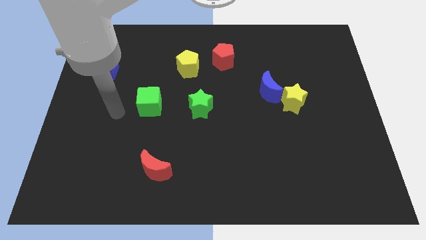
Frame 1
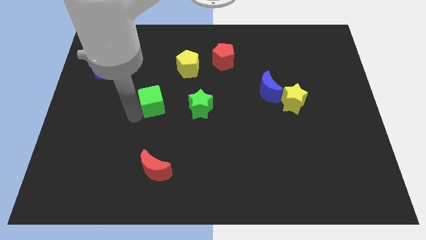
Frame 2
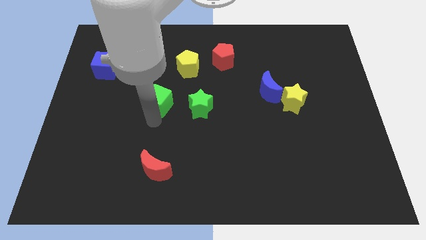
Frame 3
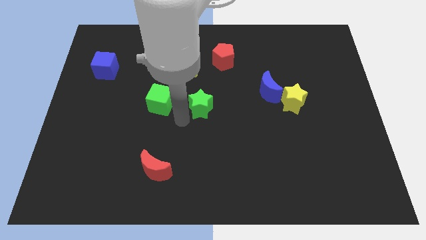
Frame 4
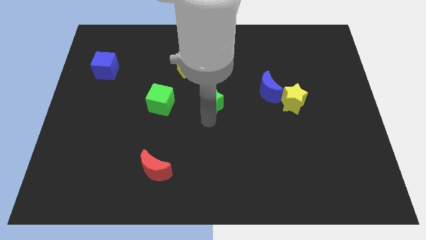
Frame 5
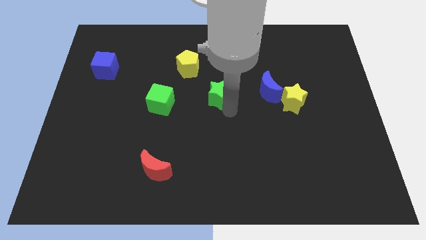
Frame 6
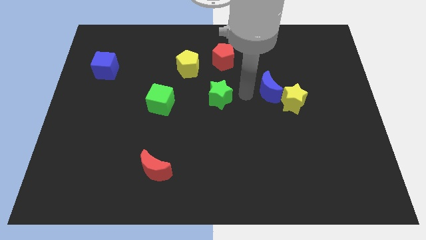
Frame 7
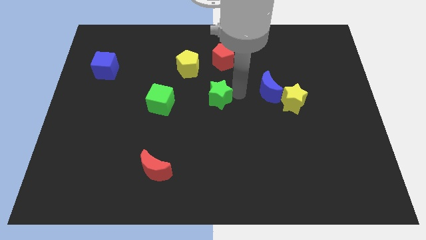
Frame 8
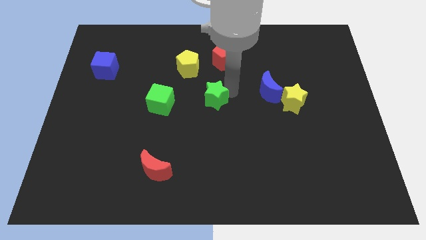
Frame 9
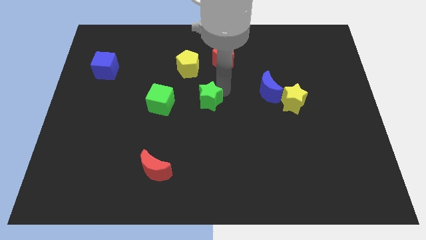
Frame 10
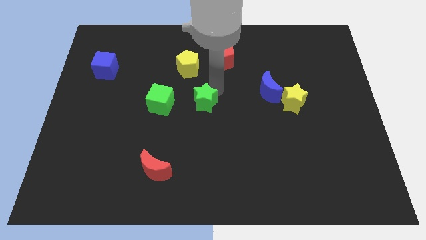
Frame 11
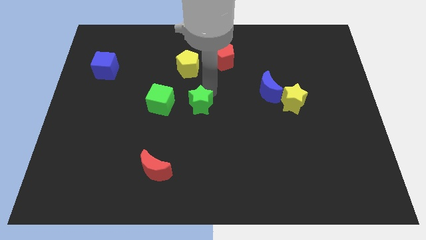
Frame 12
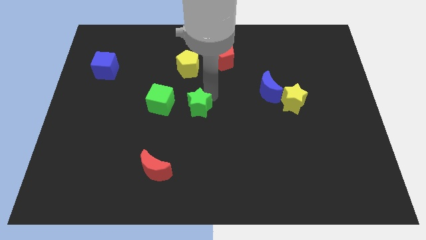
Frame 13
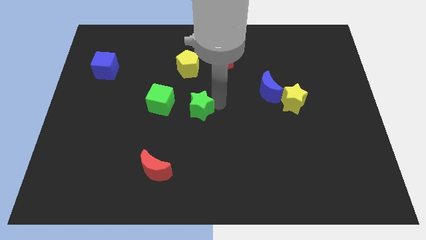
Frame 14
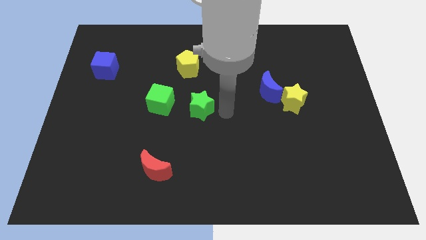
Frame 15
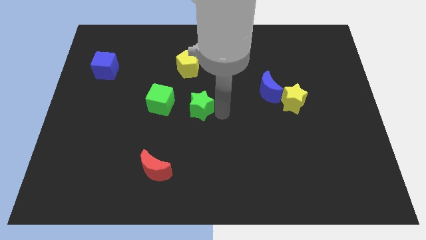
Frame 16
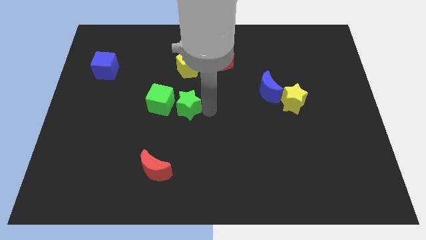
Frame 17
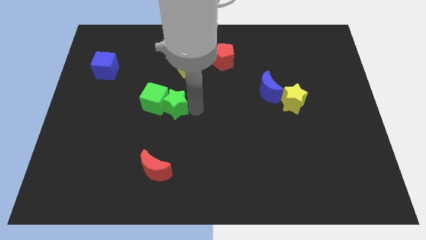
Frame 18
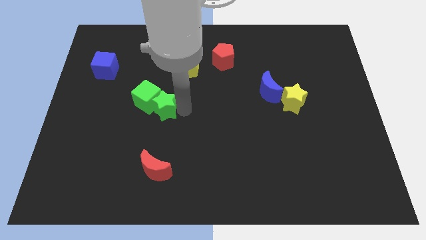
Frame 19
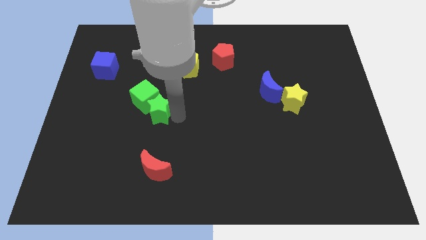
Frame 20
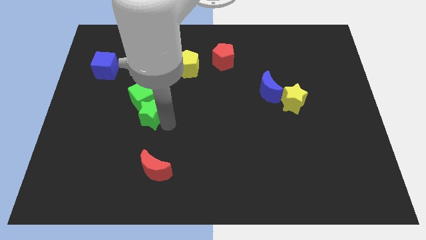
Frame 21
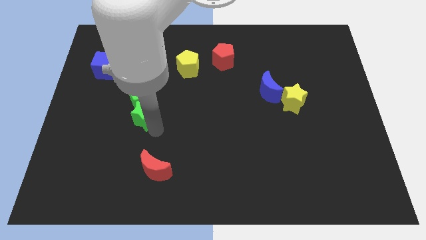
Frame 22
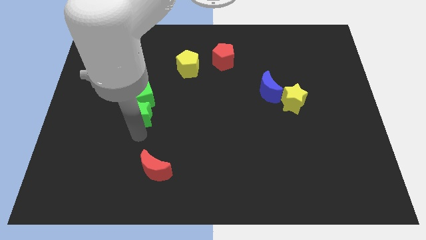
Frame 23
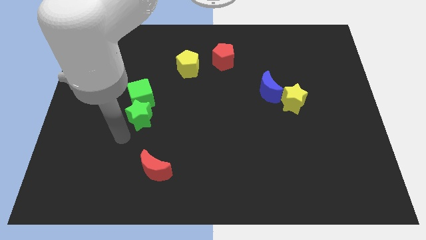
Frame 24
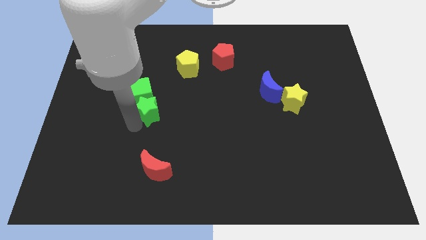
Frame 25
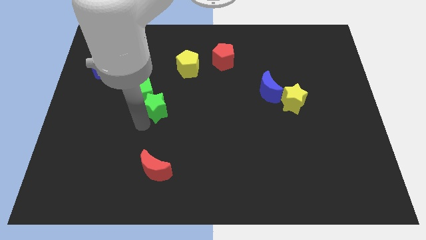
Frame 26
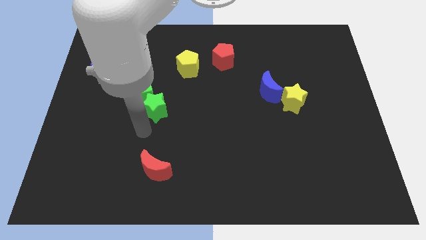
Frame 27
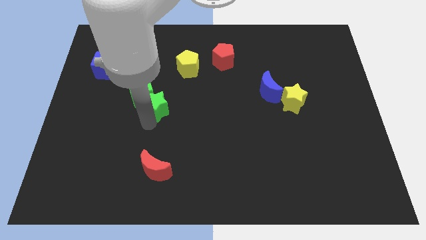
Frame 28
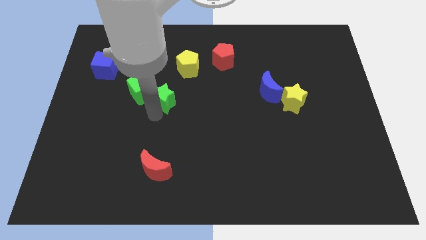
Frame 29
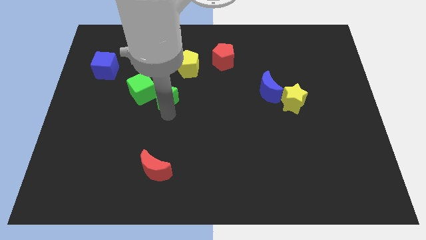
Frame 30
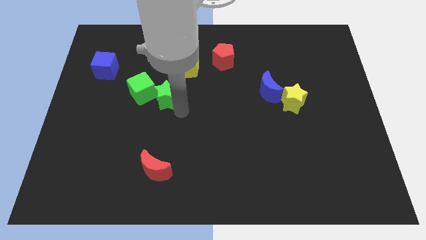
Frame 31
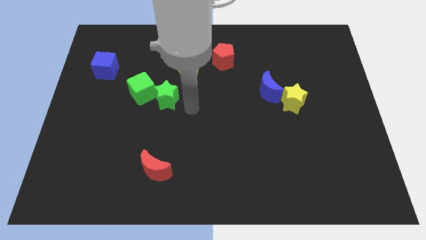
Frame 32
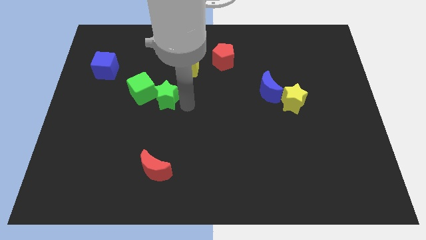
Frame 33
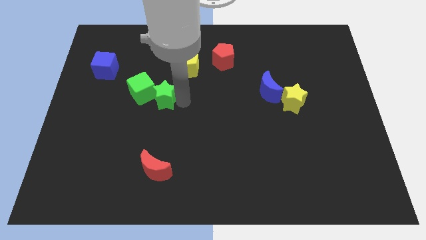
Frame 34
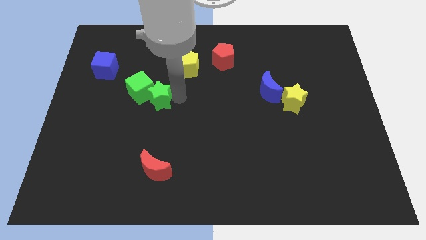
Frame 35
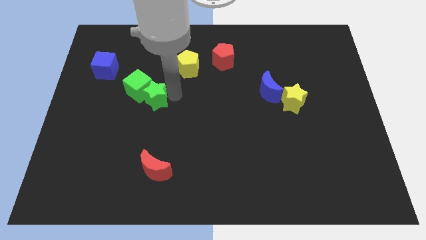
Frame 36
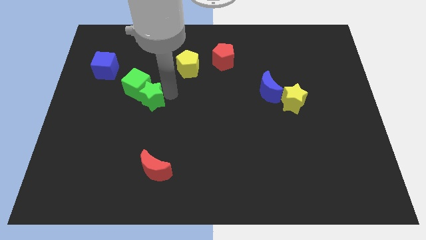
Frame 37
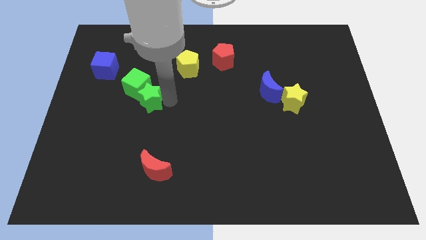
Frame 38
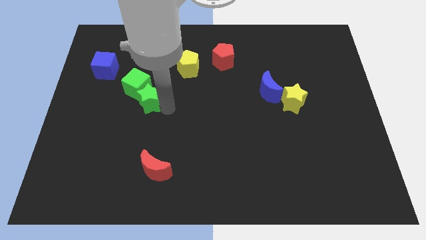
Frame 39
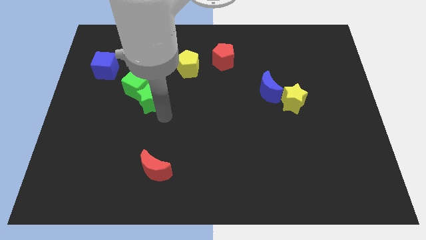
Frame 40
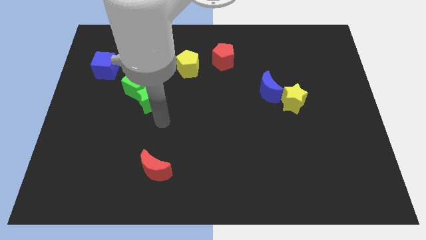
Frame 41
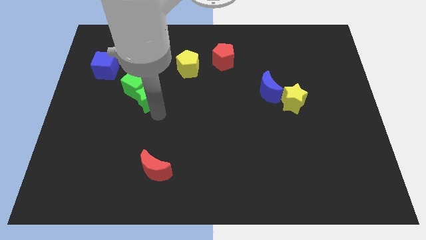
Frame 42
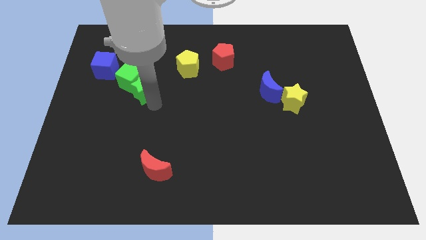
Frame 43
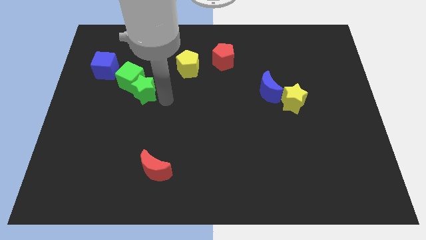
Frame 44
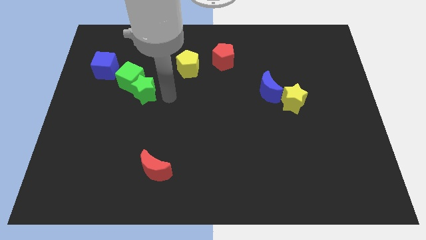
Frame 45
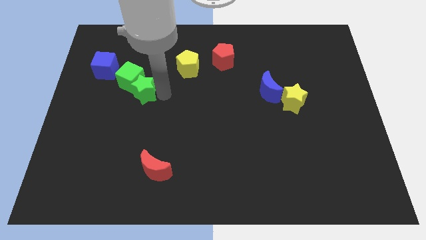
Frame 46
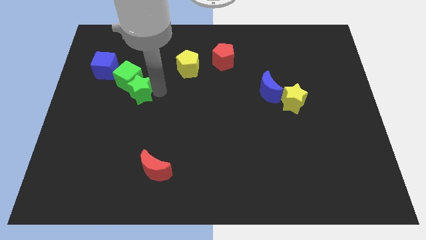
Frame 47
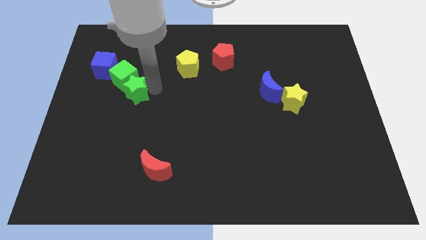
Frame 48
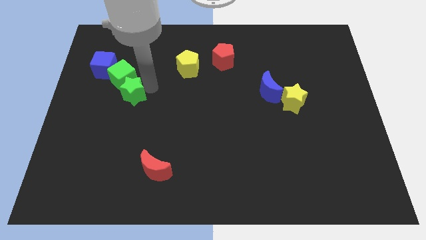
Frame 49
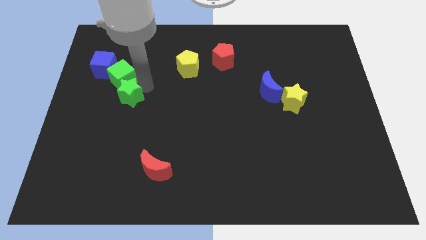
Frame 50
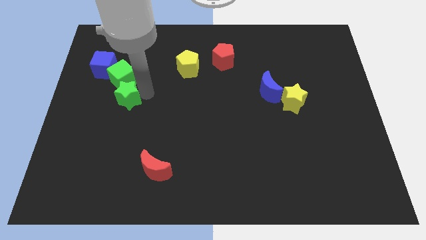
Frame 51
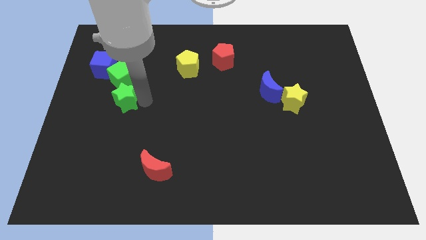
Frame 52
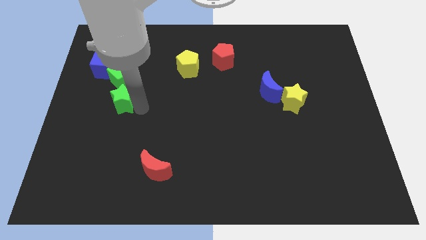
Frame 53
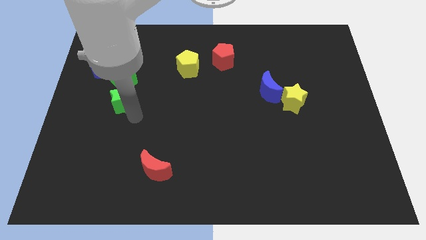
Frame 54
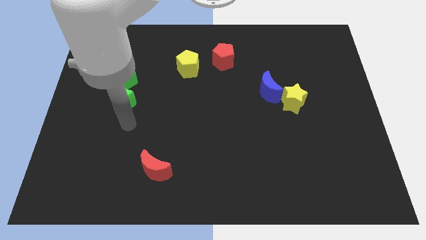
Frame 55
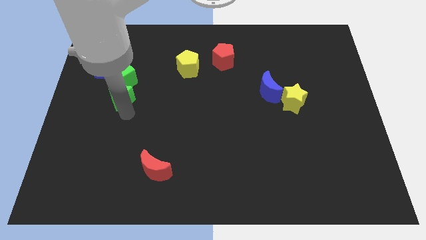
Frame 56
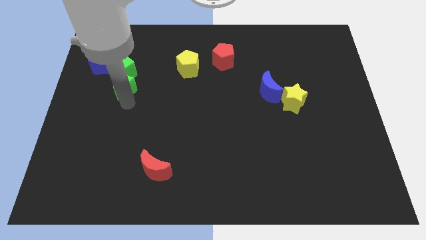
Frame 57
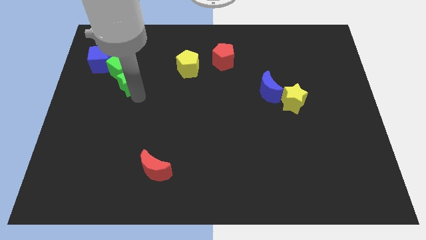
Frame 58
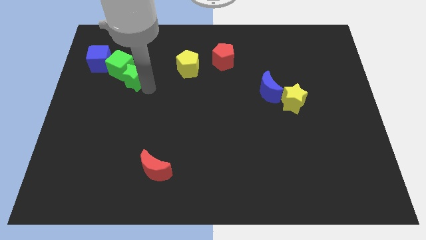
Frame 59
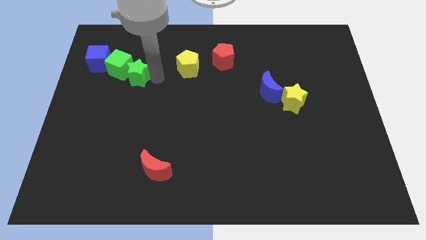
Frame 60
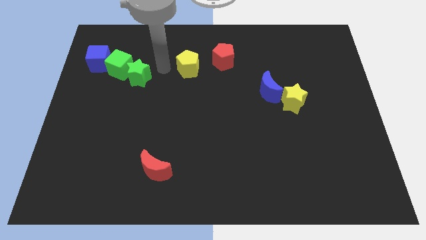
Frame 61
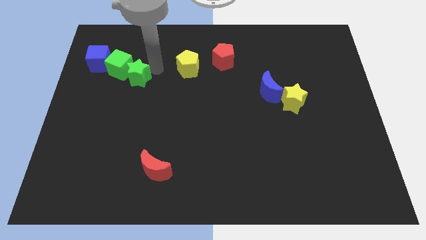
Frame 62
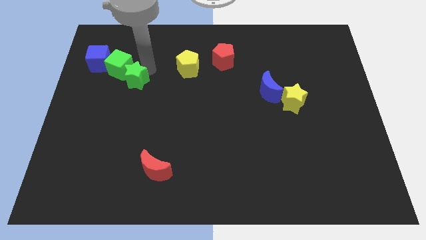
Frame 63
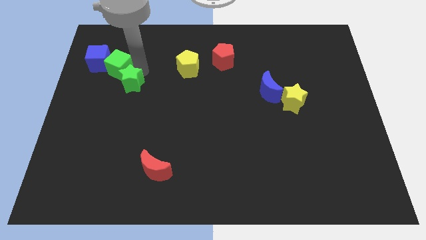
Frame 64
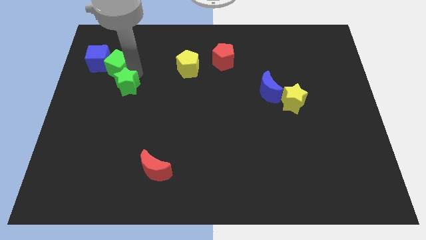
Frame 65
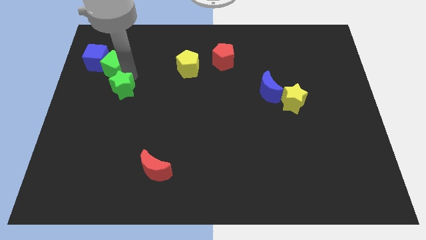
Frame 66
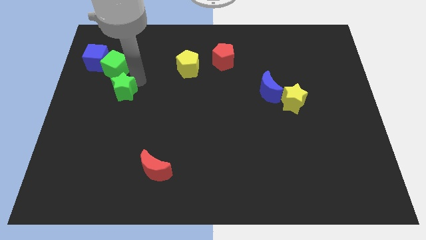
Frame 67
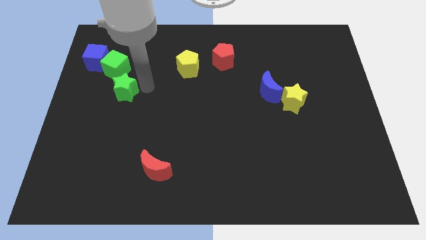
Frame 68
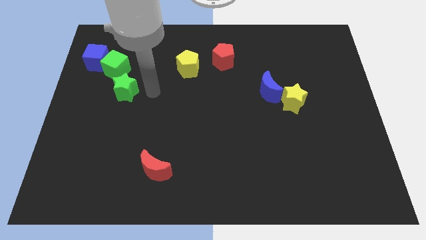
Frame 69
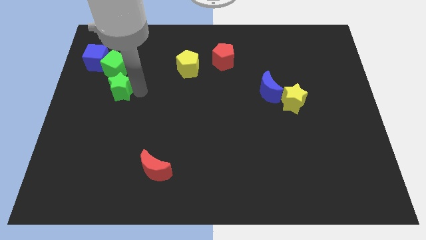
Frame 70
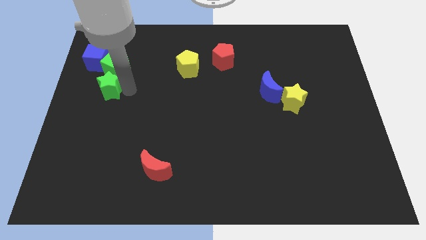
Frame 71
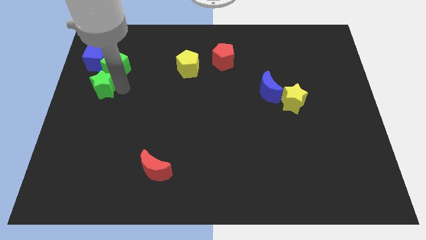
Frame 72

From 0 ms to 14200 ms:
push the green star to the center left
